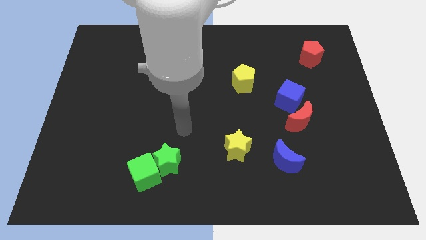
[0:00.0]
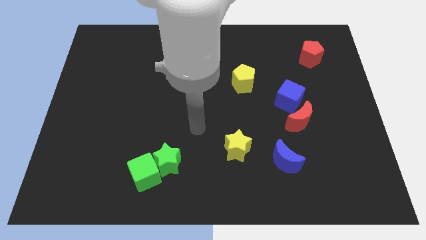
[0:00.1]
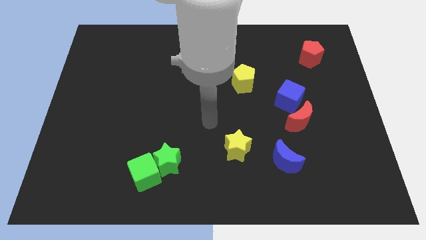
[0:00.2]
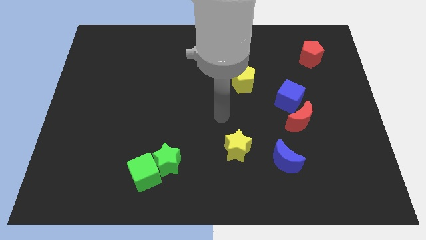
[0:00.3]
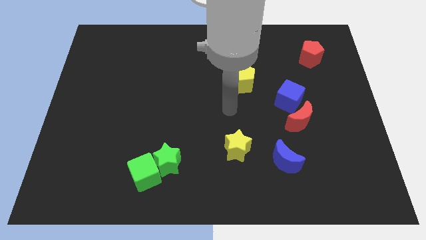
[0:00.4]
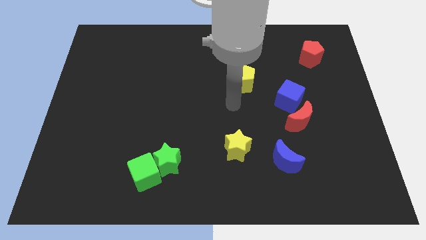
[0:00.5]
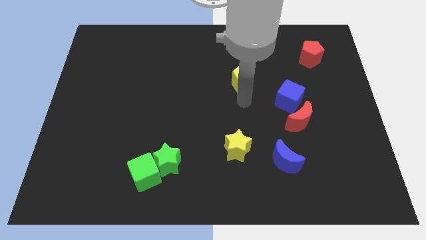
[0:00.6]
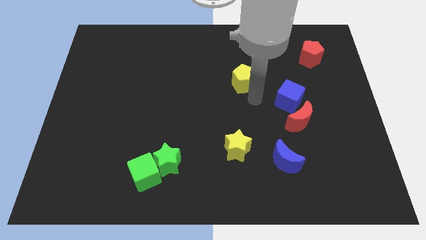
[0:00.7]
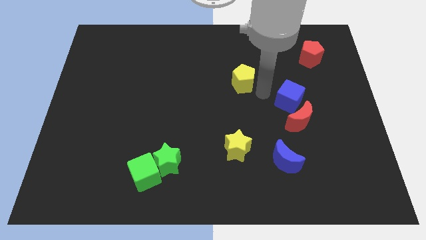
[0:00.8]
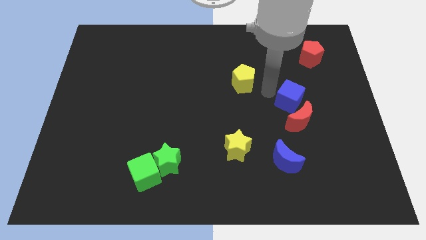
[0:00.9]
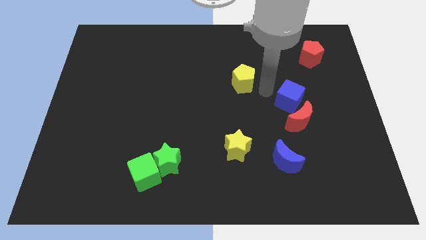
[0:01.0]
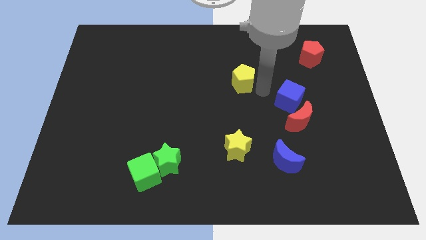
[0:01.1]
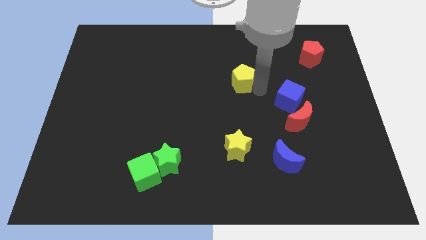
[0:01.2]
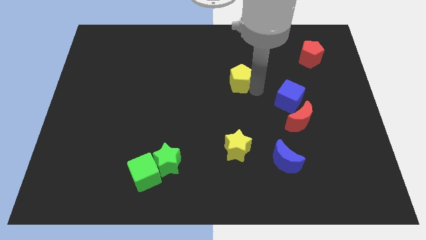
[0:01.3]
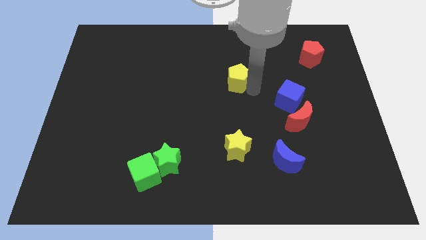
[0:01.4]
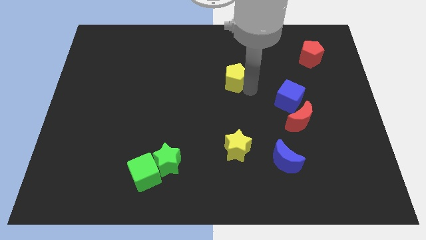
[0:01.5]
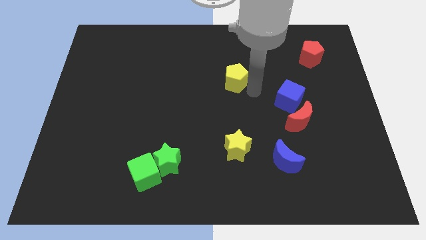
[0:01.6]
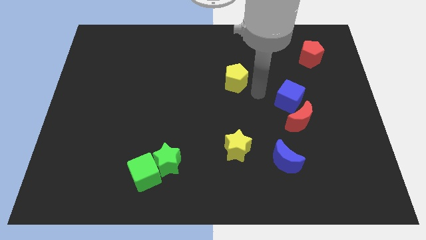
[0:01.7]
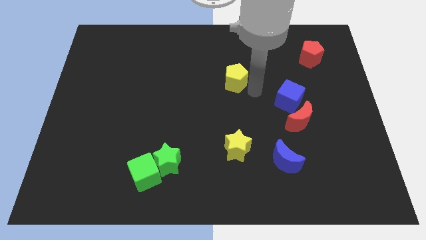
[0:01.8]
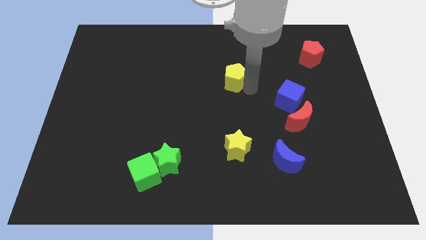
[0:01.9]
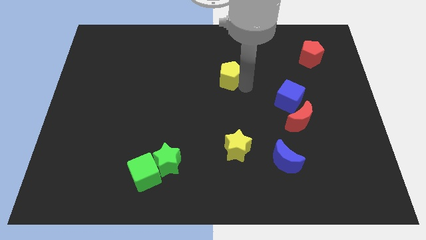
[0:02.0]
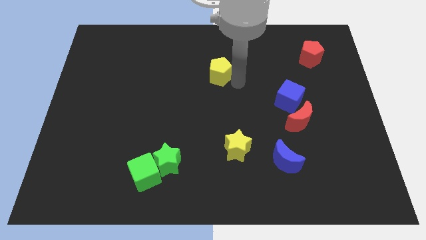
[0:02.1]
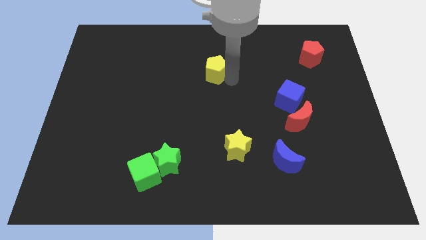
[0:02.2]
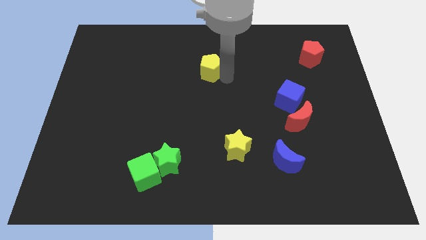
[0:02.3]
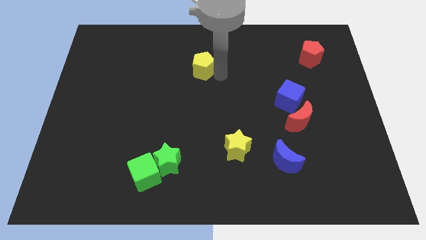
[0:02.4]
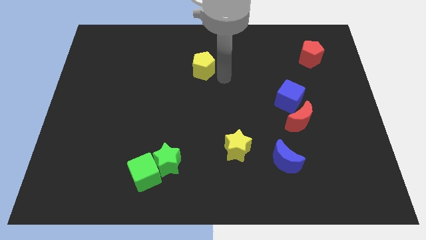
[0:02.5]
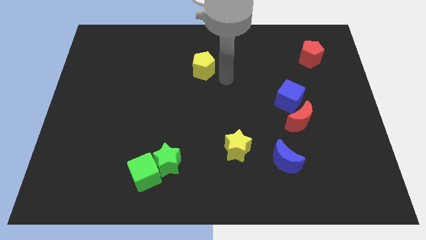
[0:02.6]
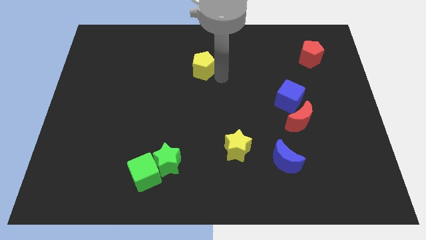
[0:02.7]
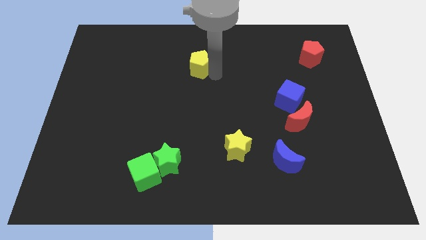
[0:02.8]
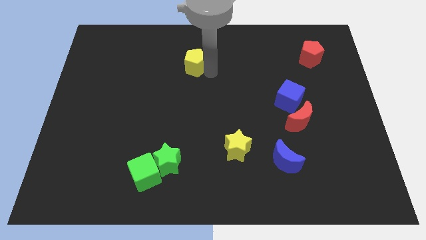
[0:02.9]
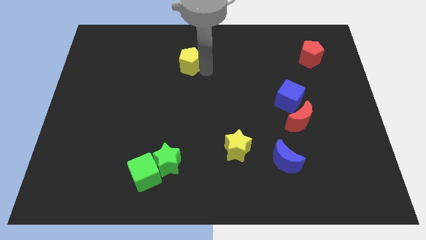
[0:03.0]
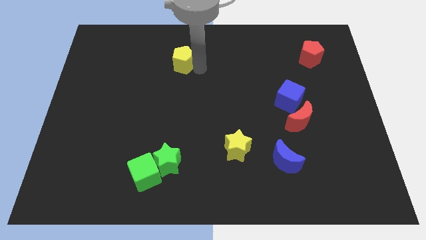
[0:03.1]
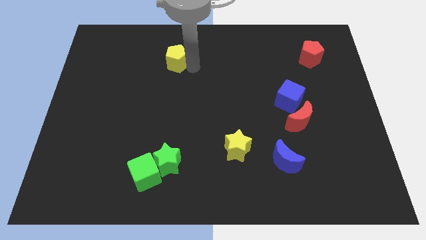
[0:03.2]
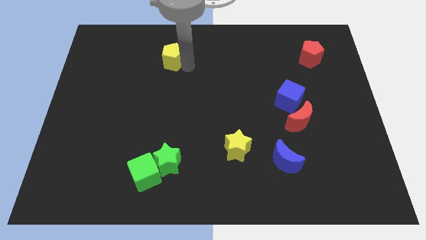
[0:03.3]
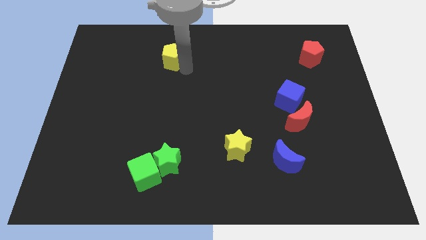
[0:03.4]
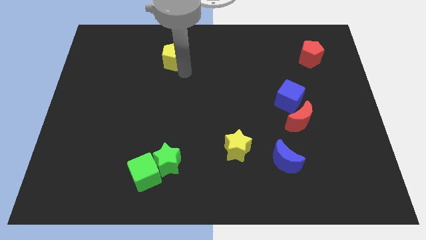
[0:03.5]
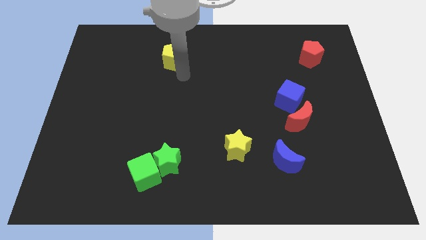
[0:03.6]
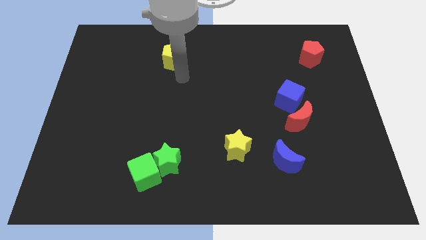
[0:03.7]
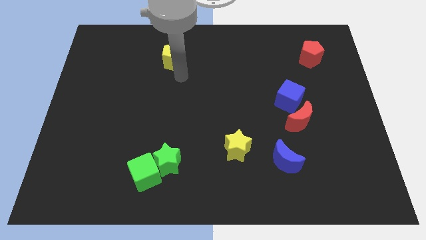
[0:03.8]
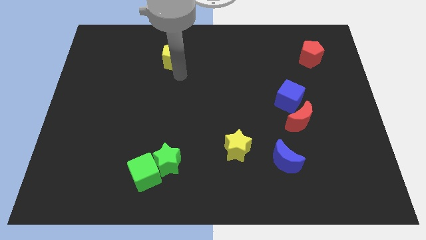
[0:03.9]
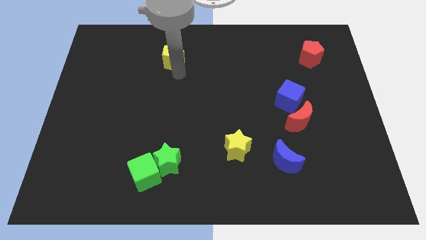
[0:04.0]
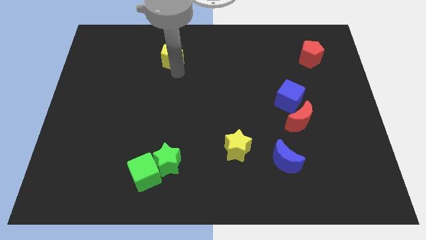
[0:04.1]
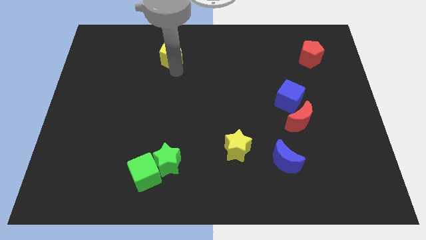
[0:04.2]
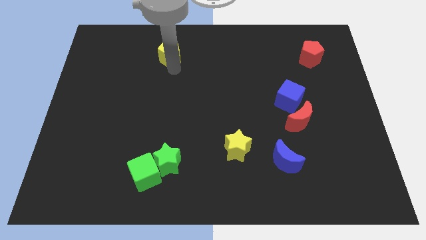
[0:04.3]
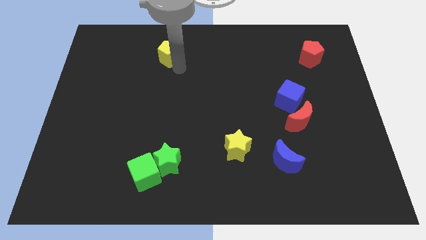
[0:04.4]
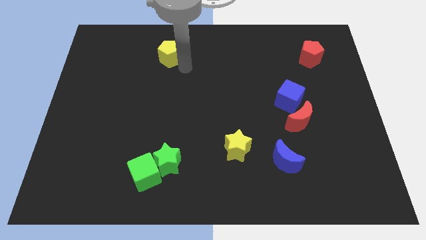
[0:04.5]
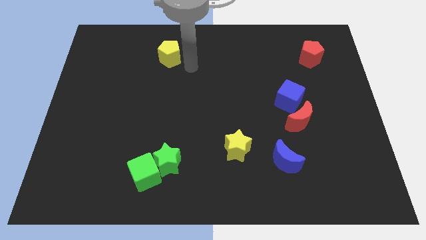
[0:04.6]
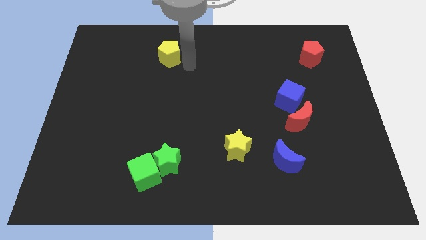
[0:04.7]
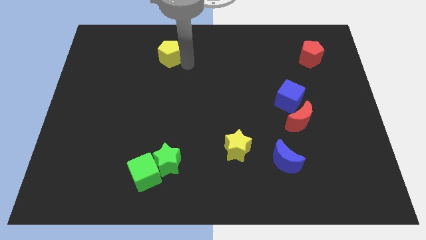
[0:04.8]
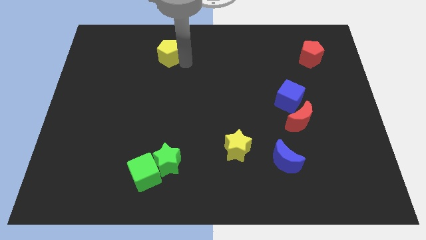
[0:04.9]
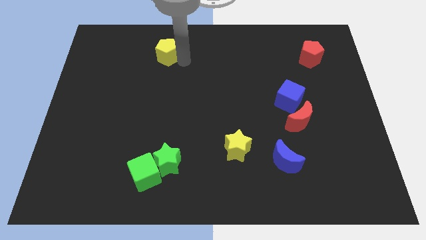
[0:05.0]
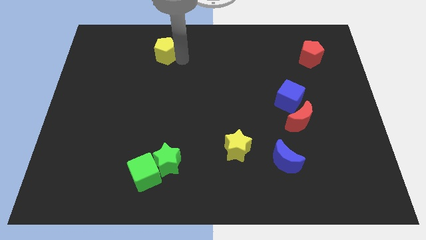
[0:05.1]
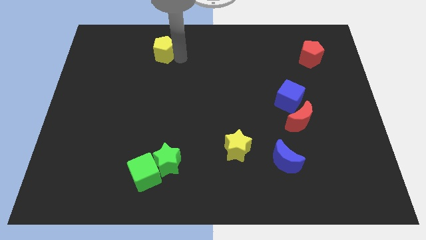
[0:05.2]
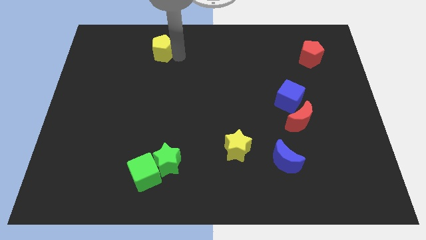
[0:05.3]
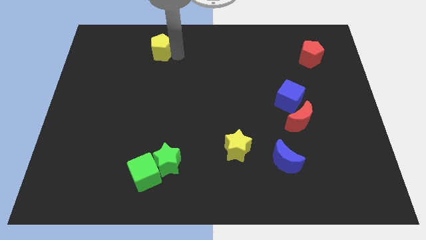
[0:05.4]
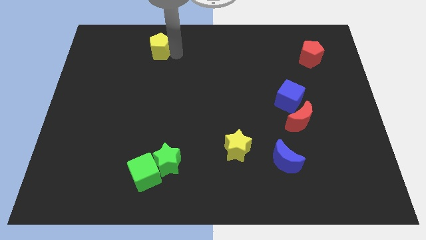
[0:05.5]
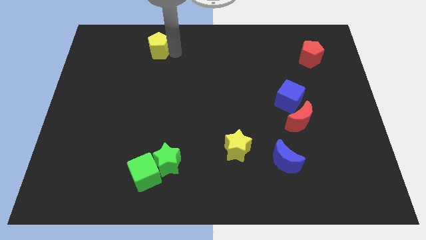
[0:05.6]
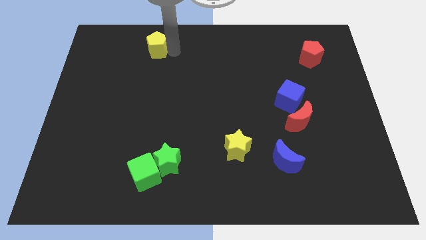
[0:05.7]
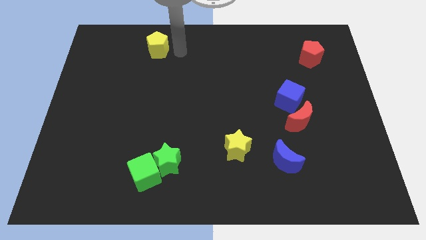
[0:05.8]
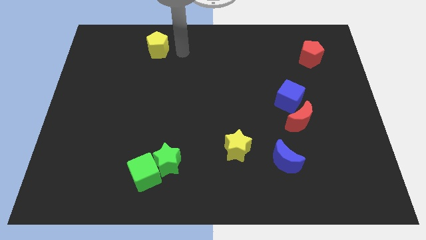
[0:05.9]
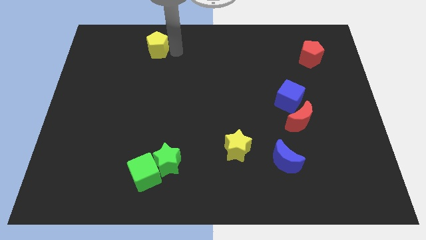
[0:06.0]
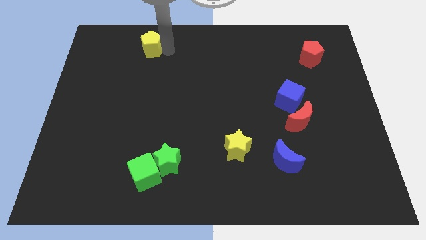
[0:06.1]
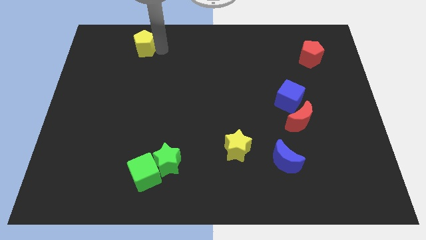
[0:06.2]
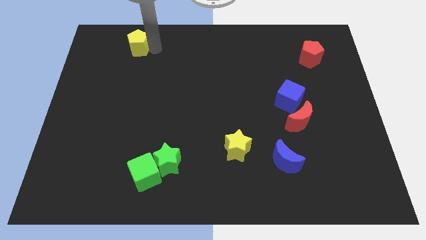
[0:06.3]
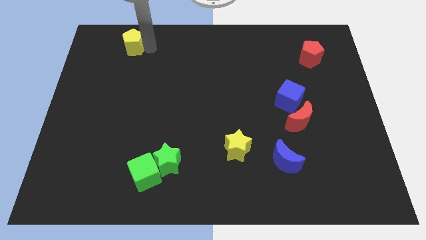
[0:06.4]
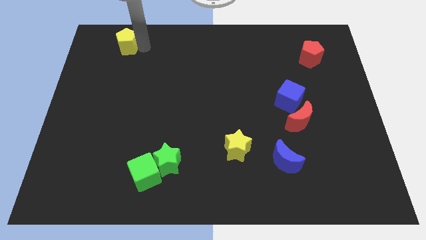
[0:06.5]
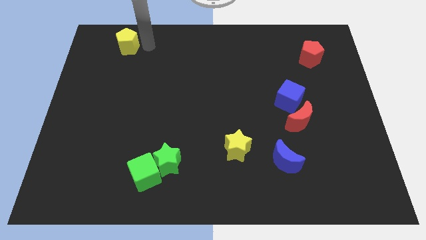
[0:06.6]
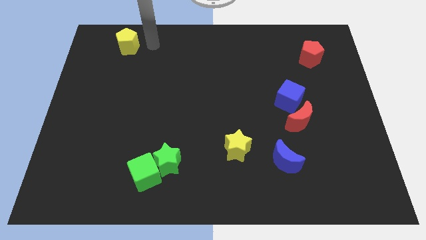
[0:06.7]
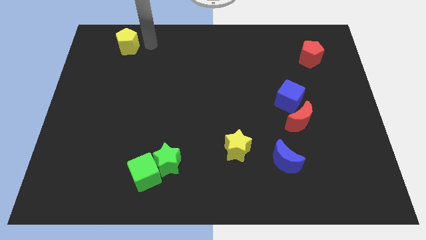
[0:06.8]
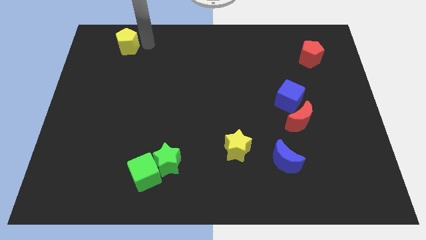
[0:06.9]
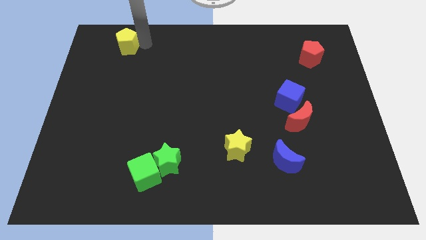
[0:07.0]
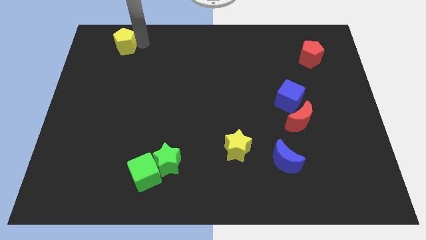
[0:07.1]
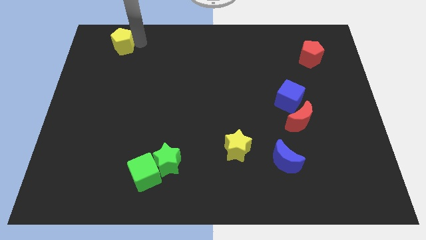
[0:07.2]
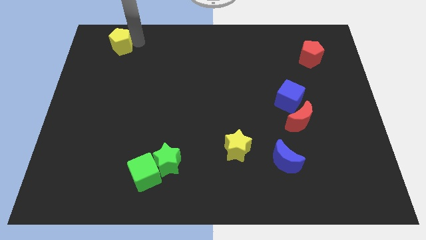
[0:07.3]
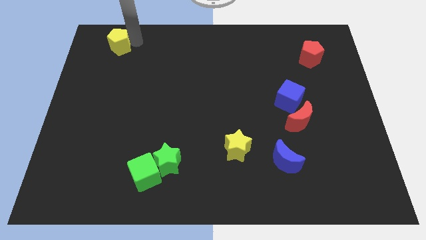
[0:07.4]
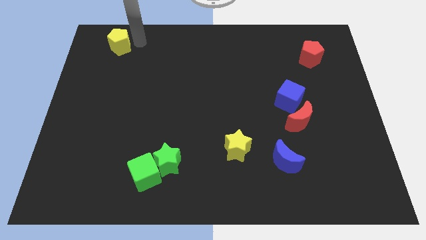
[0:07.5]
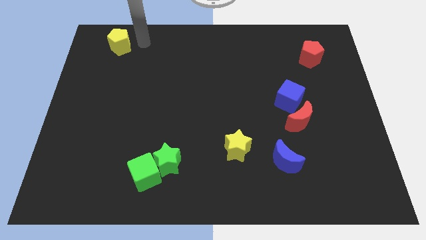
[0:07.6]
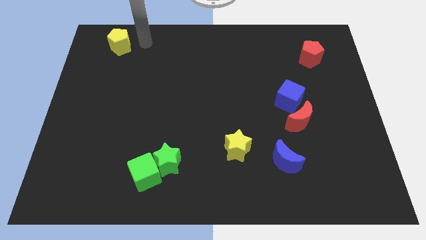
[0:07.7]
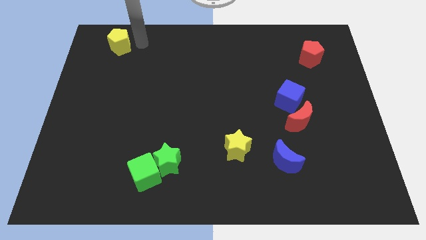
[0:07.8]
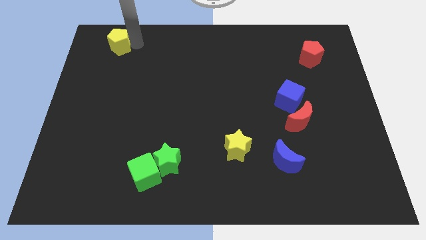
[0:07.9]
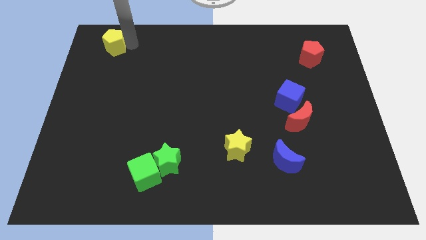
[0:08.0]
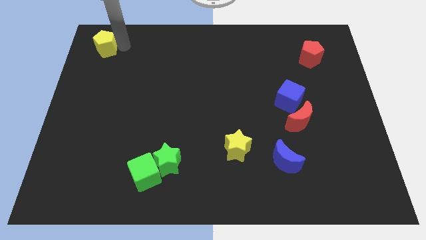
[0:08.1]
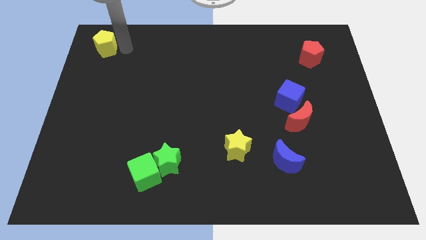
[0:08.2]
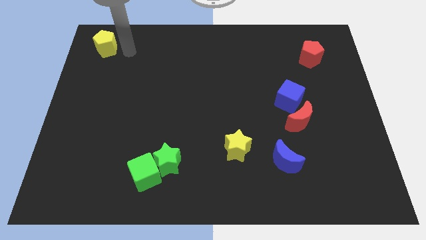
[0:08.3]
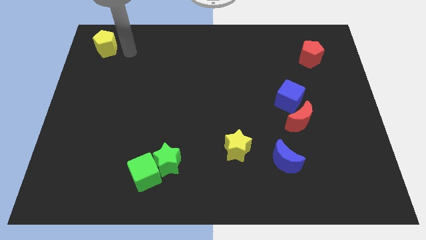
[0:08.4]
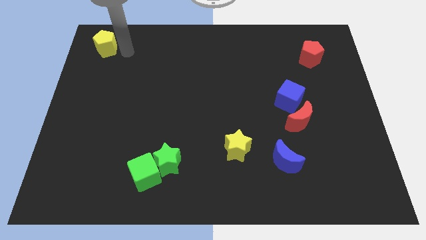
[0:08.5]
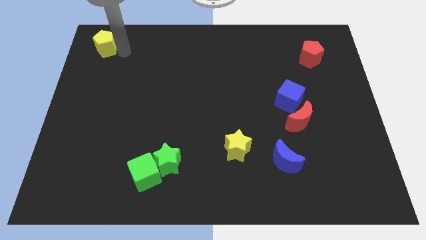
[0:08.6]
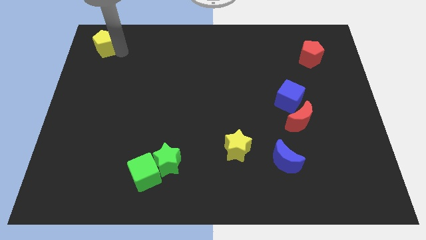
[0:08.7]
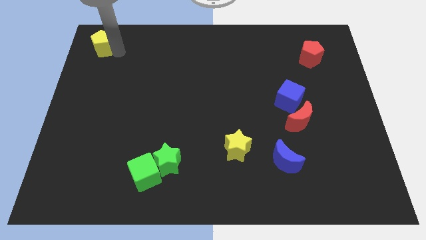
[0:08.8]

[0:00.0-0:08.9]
slide the yellow pentagon to the upper left corner
